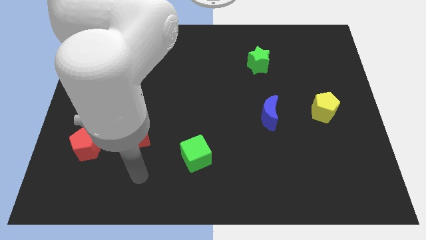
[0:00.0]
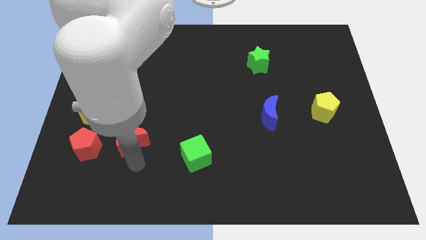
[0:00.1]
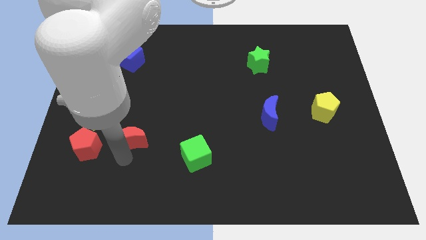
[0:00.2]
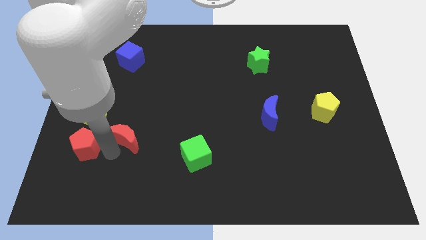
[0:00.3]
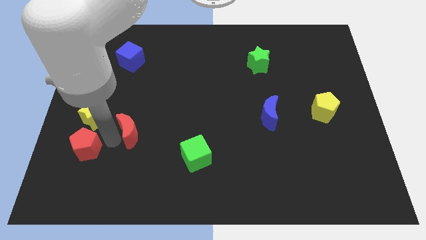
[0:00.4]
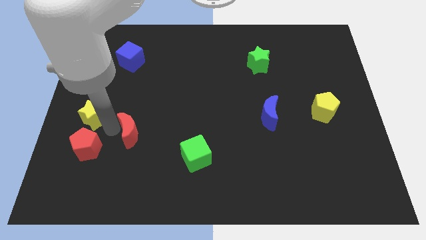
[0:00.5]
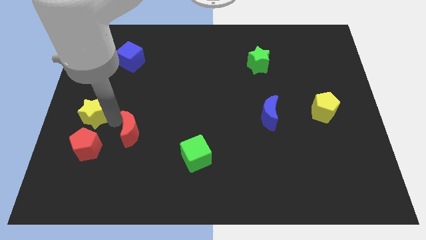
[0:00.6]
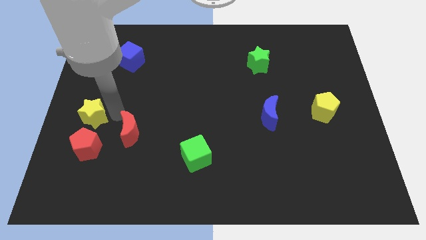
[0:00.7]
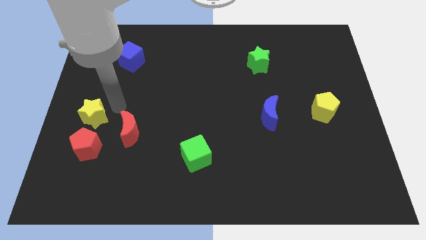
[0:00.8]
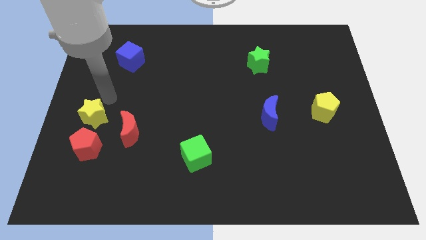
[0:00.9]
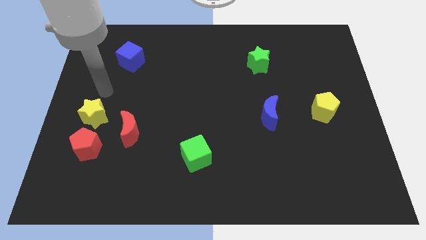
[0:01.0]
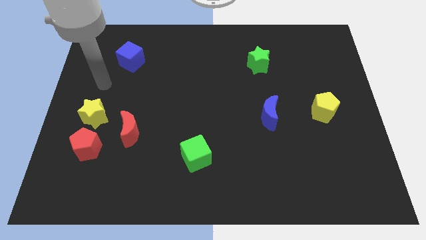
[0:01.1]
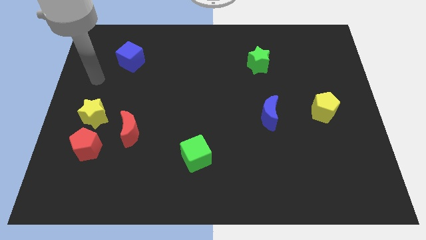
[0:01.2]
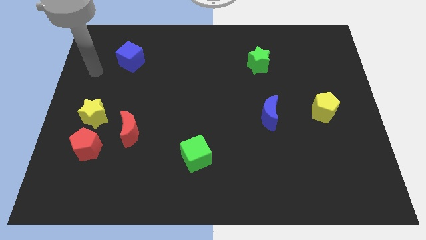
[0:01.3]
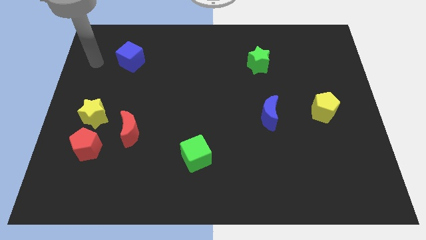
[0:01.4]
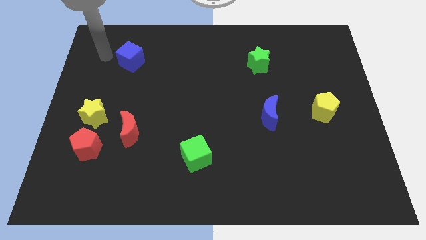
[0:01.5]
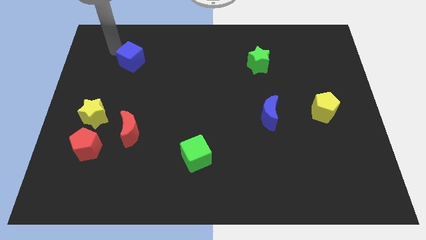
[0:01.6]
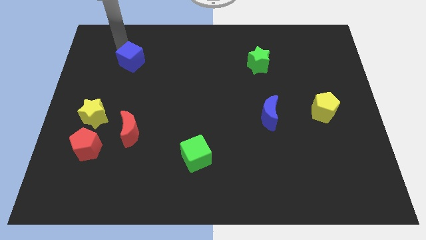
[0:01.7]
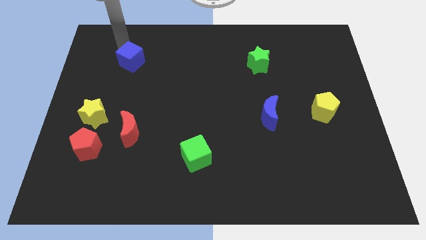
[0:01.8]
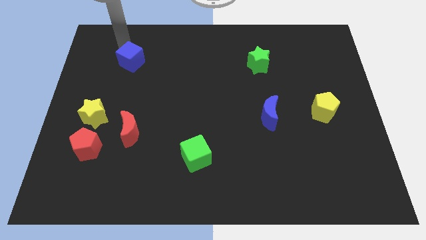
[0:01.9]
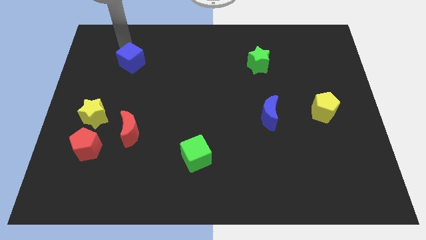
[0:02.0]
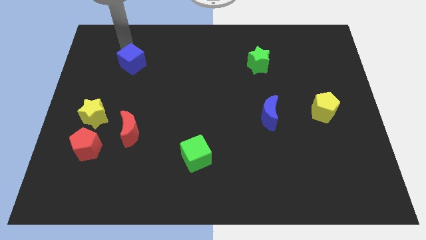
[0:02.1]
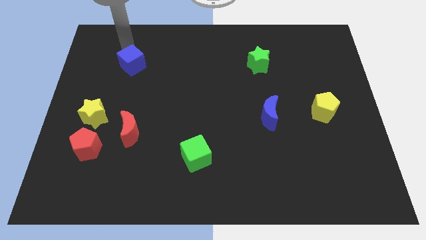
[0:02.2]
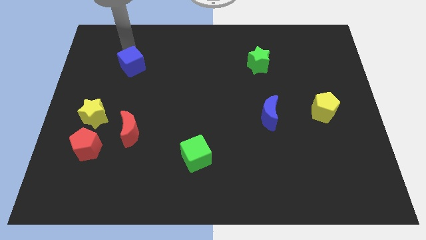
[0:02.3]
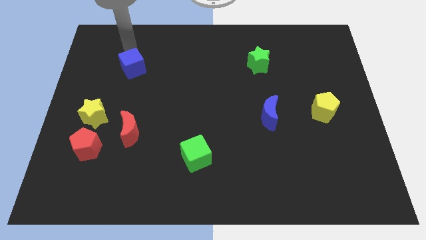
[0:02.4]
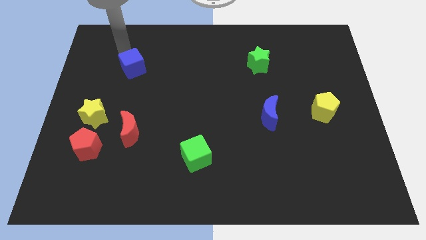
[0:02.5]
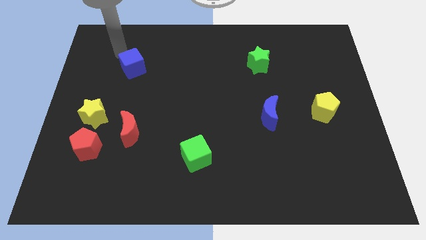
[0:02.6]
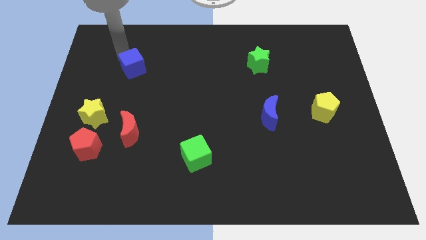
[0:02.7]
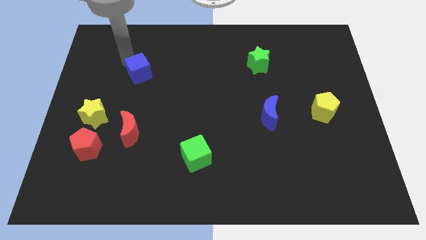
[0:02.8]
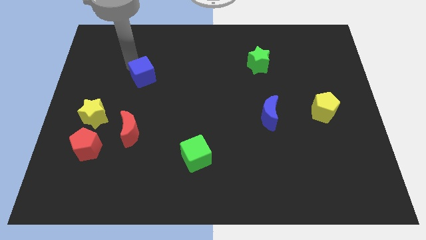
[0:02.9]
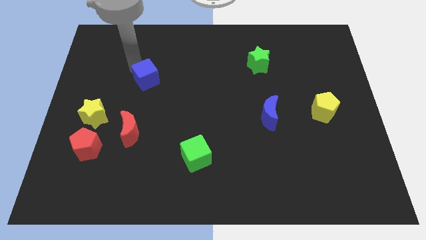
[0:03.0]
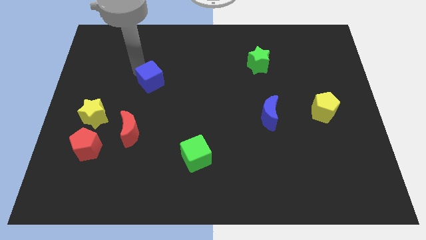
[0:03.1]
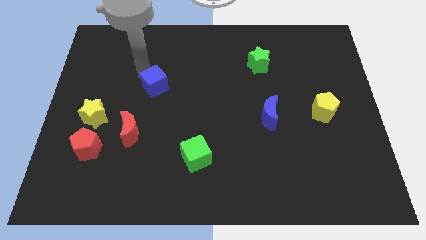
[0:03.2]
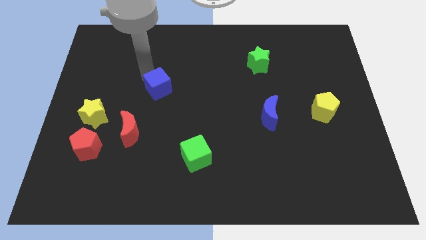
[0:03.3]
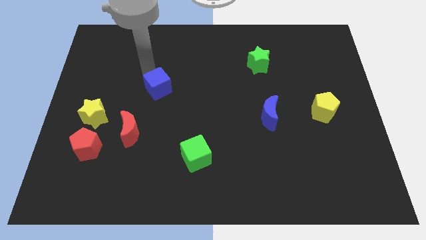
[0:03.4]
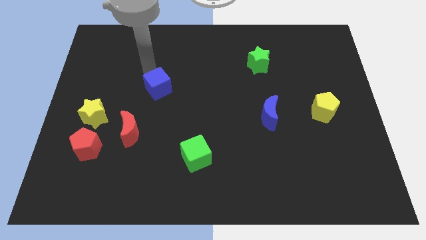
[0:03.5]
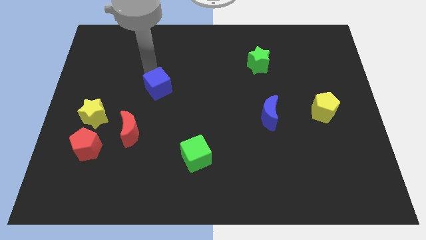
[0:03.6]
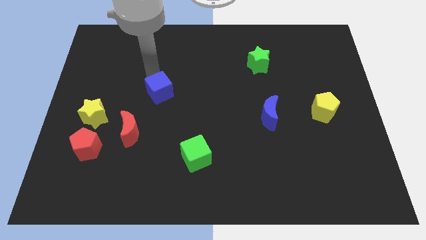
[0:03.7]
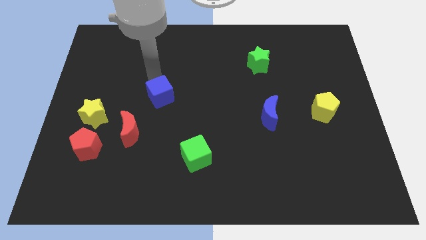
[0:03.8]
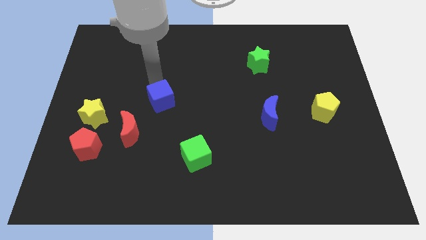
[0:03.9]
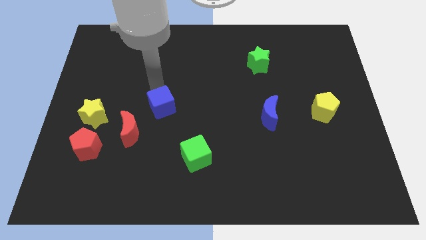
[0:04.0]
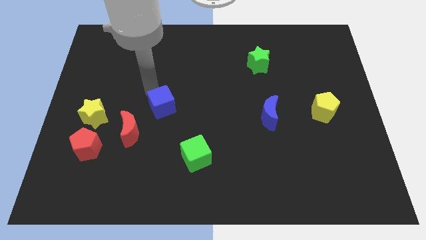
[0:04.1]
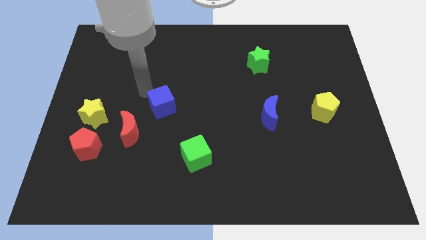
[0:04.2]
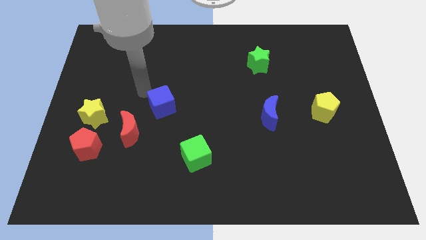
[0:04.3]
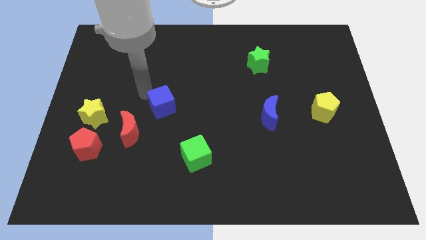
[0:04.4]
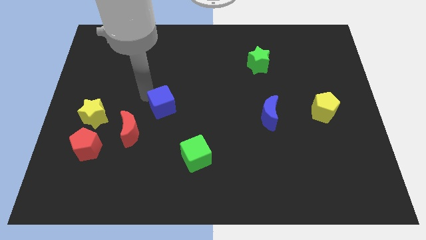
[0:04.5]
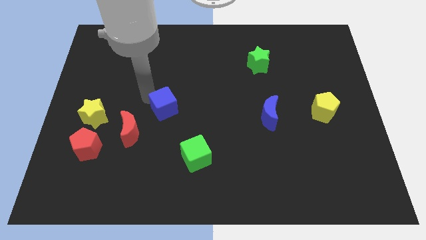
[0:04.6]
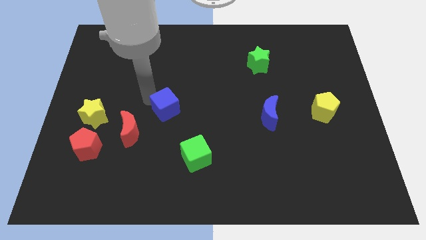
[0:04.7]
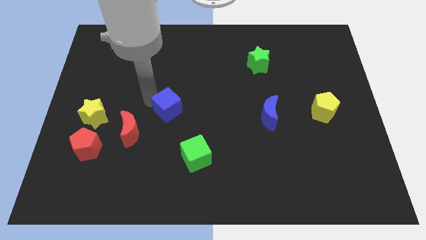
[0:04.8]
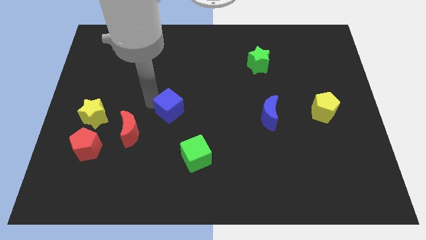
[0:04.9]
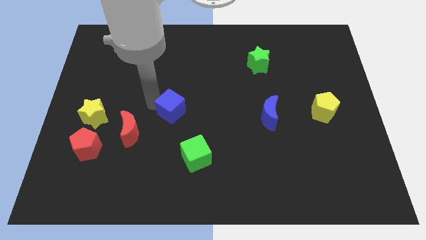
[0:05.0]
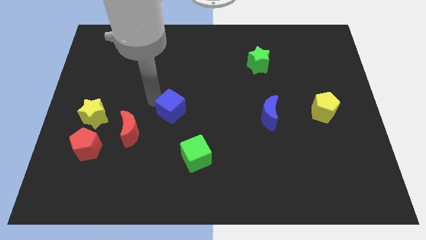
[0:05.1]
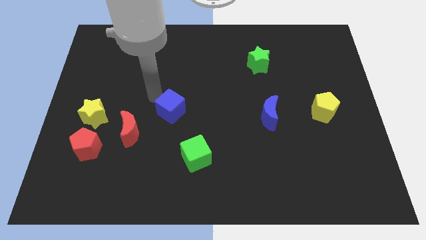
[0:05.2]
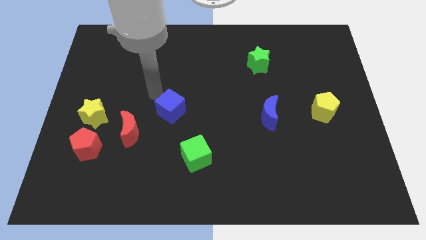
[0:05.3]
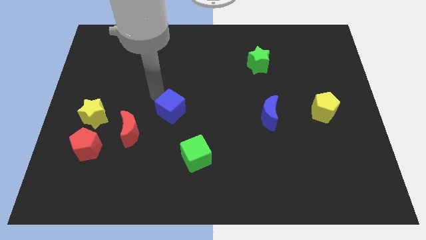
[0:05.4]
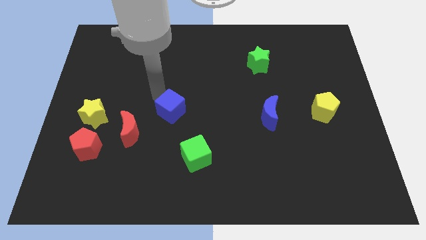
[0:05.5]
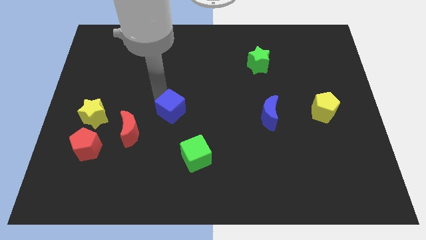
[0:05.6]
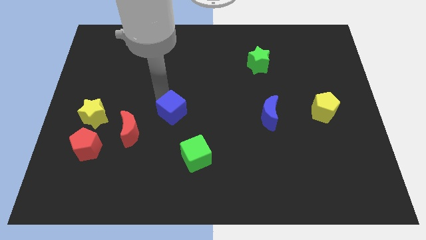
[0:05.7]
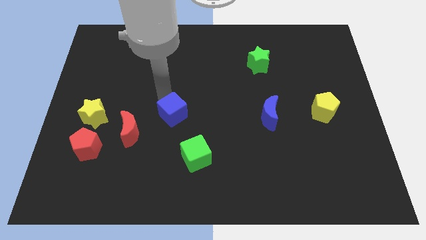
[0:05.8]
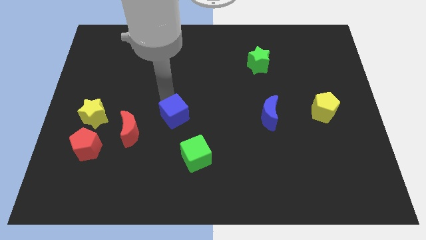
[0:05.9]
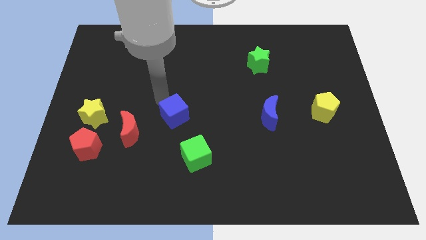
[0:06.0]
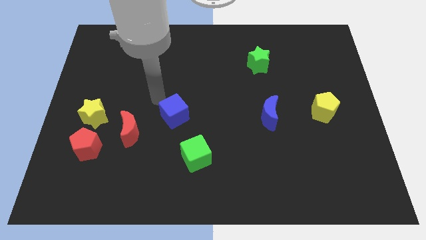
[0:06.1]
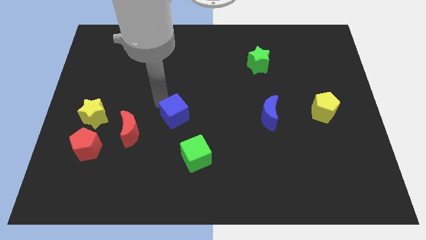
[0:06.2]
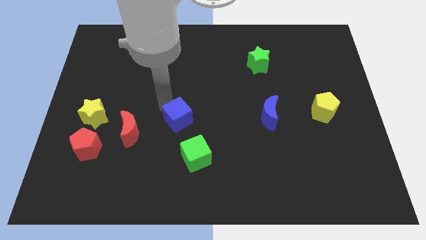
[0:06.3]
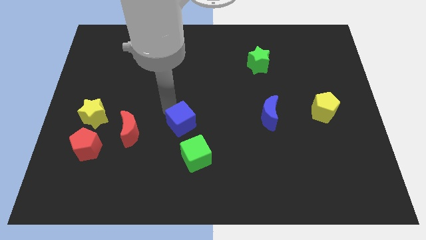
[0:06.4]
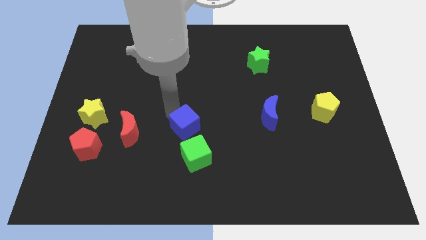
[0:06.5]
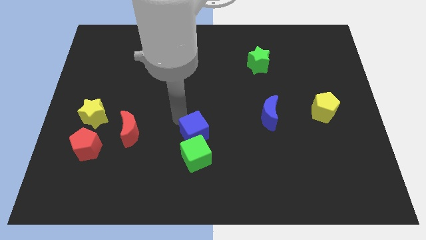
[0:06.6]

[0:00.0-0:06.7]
slide the blue cube next to the green cube

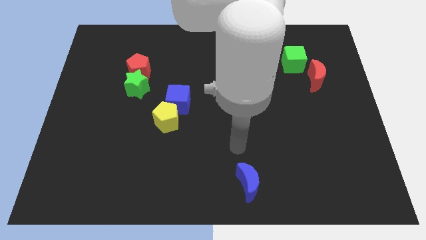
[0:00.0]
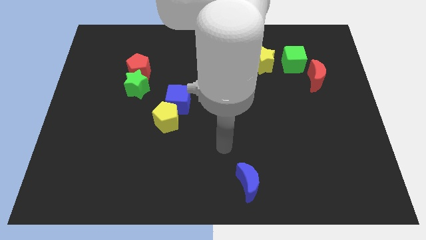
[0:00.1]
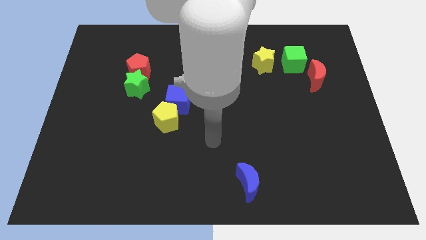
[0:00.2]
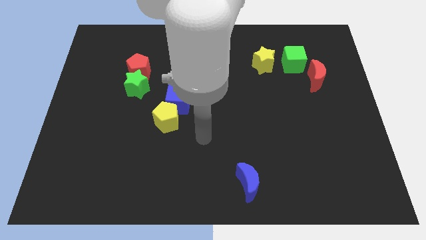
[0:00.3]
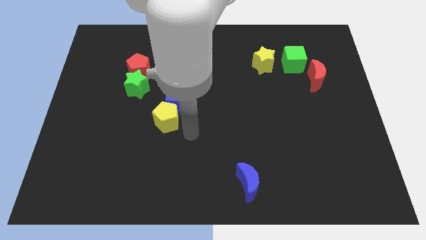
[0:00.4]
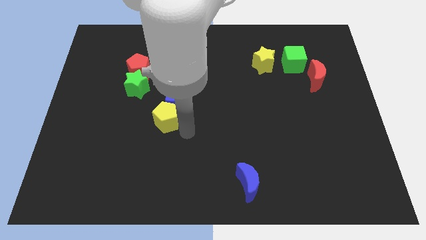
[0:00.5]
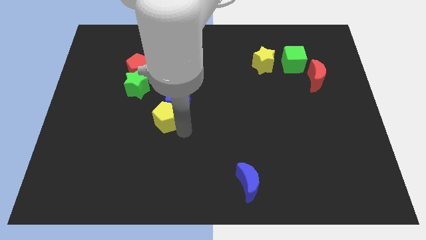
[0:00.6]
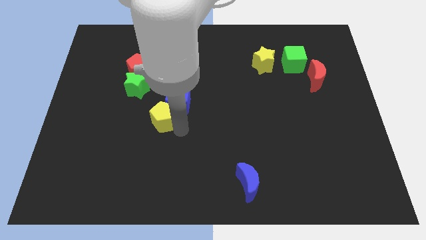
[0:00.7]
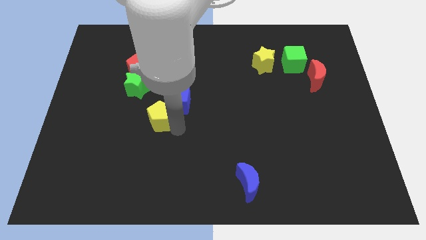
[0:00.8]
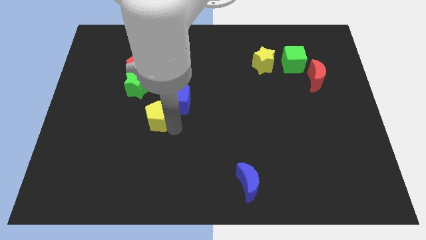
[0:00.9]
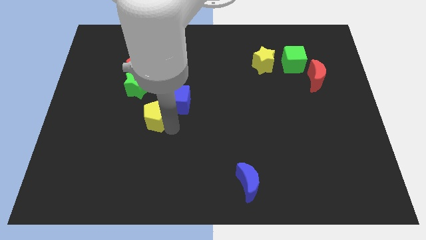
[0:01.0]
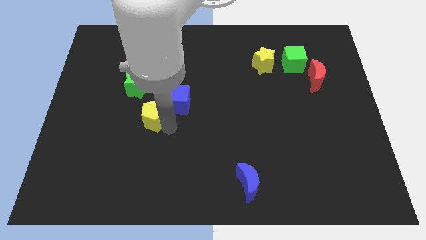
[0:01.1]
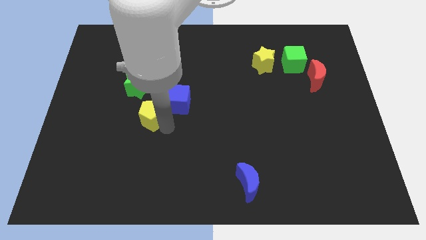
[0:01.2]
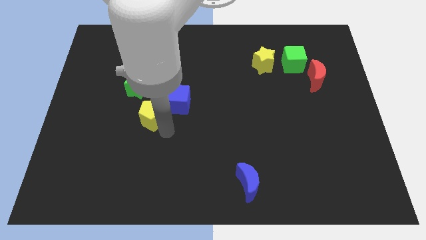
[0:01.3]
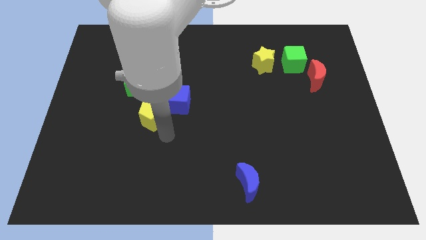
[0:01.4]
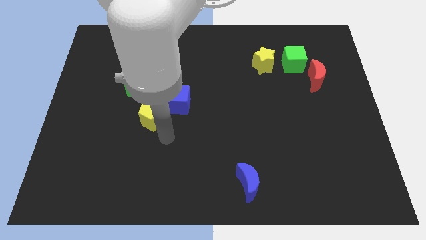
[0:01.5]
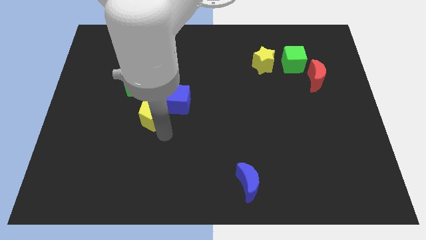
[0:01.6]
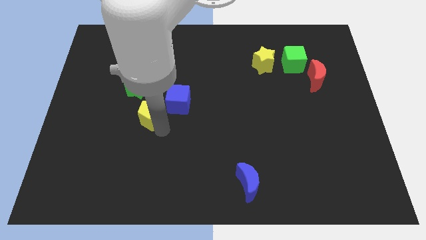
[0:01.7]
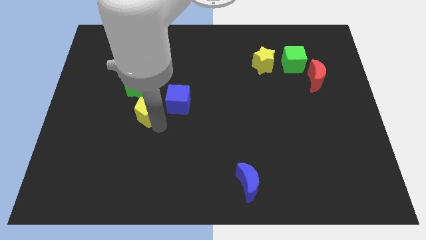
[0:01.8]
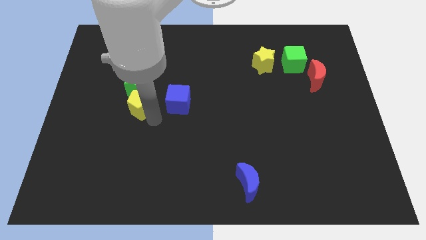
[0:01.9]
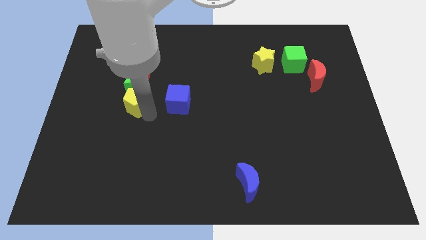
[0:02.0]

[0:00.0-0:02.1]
push the yellow pentagon next to the green star
